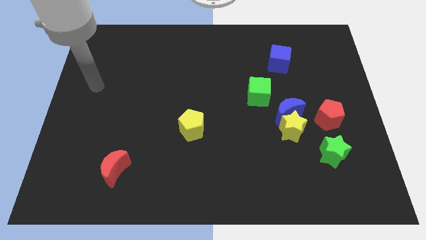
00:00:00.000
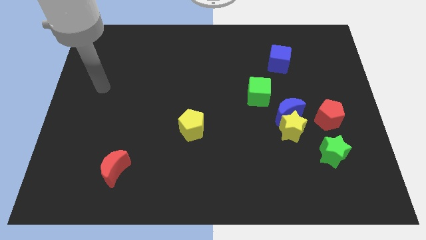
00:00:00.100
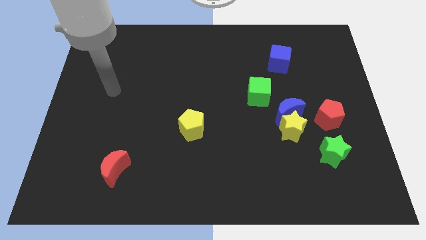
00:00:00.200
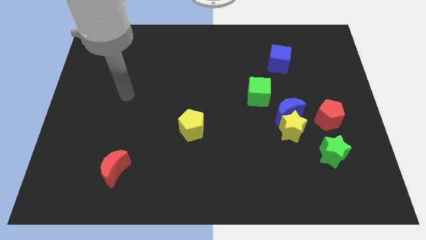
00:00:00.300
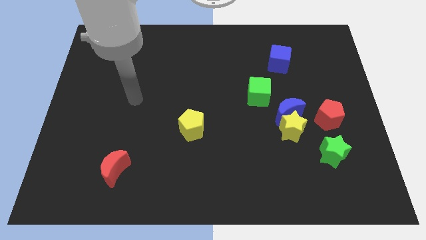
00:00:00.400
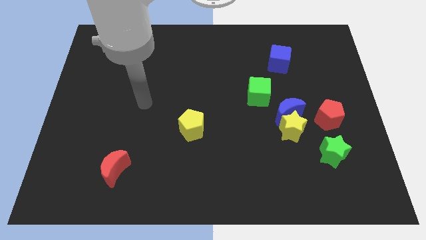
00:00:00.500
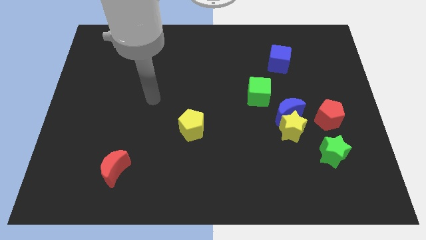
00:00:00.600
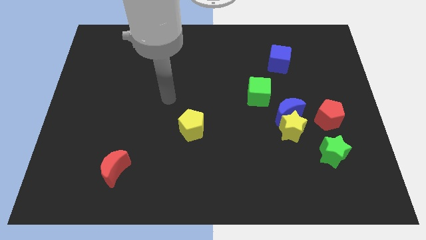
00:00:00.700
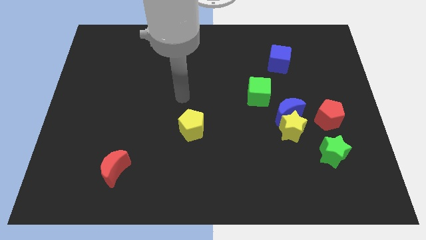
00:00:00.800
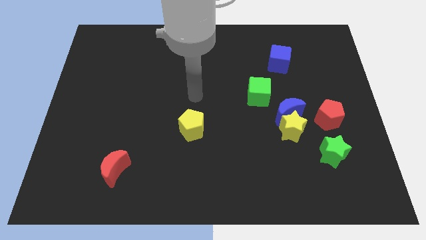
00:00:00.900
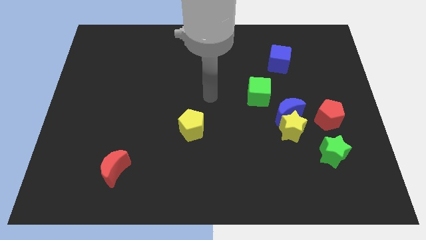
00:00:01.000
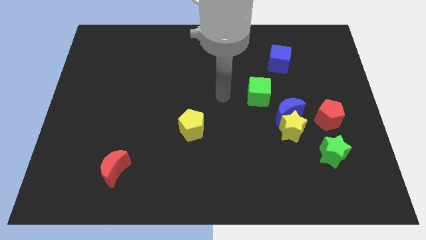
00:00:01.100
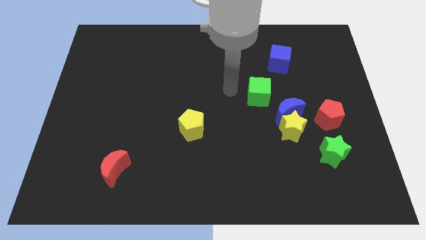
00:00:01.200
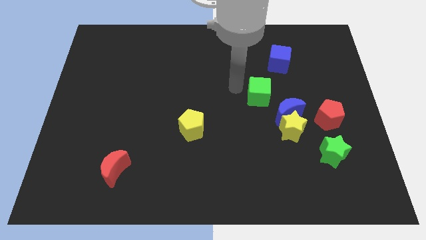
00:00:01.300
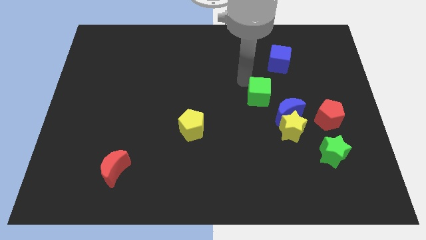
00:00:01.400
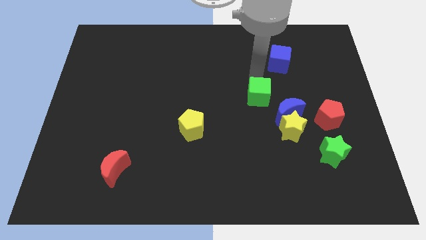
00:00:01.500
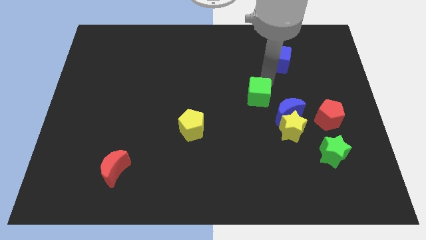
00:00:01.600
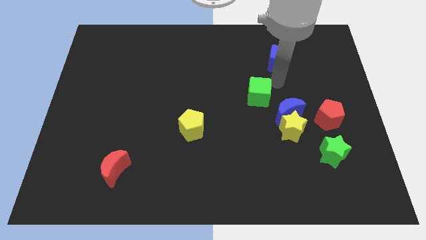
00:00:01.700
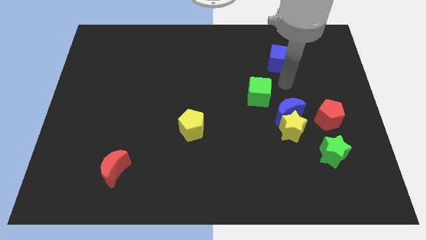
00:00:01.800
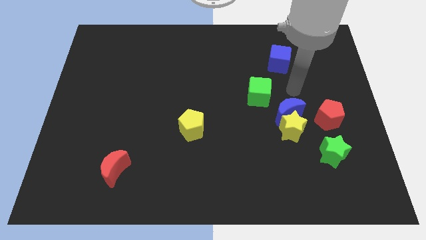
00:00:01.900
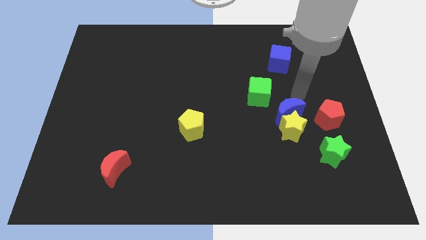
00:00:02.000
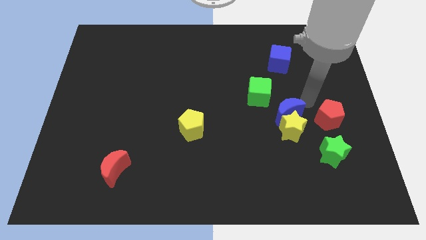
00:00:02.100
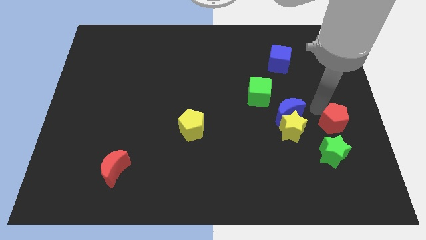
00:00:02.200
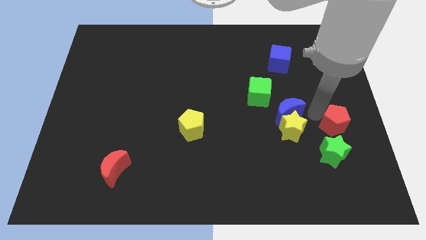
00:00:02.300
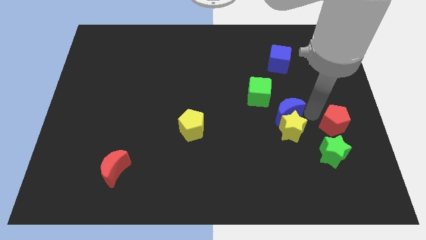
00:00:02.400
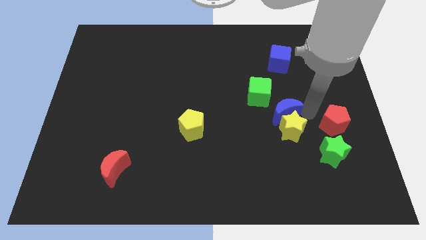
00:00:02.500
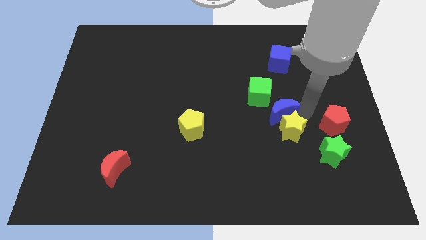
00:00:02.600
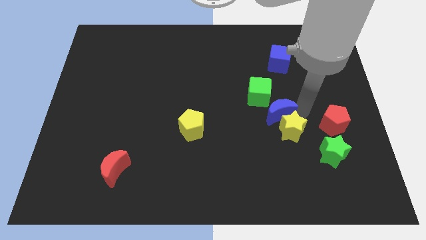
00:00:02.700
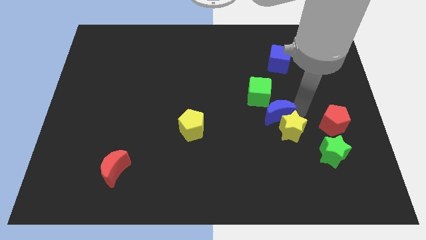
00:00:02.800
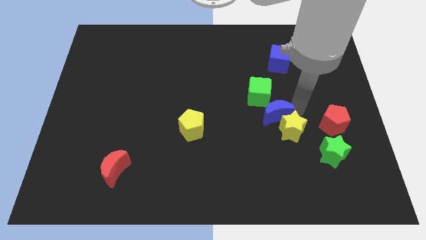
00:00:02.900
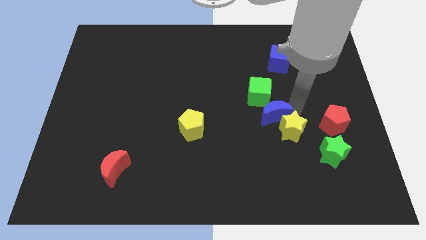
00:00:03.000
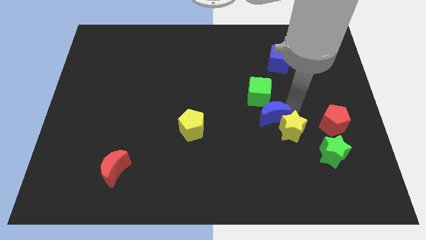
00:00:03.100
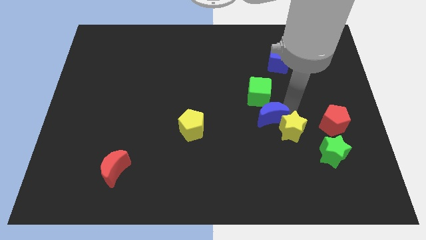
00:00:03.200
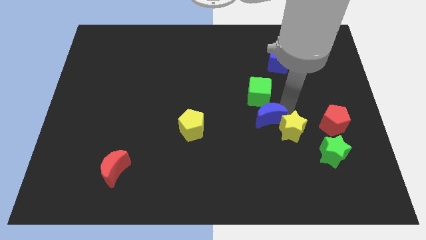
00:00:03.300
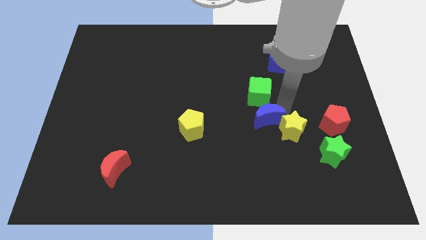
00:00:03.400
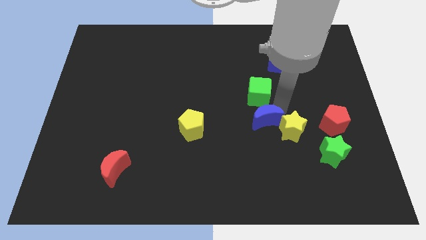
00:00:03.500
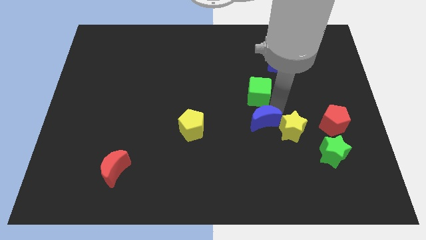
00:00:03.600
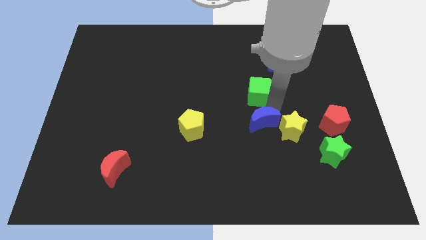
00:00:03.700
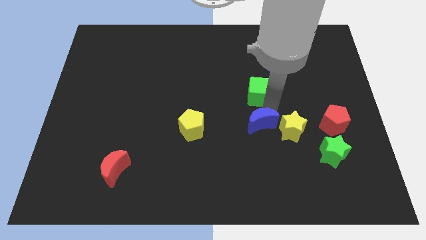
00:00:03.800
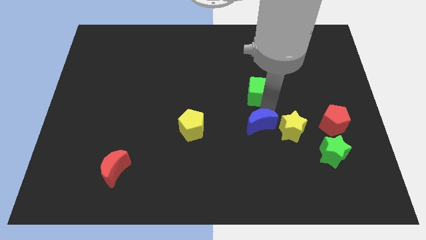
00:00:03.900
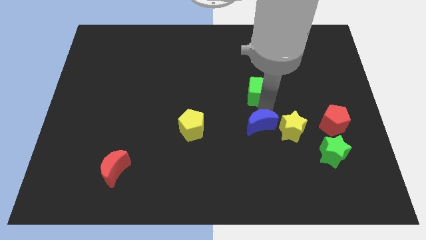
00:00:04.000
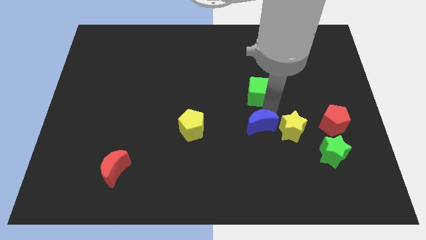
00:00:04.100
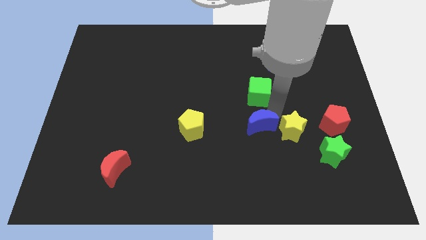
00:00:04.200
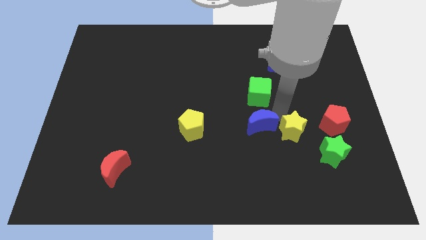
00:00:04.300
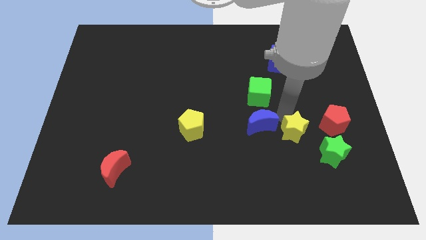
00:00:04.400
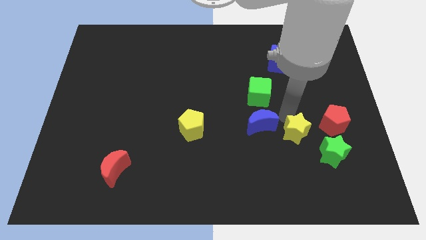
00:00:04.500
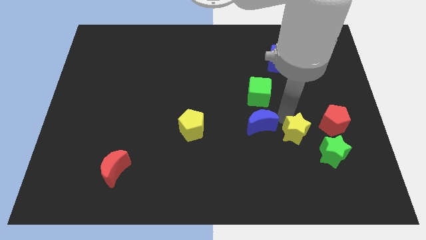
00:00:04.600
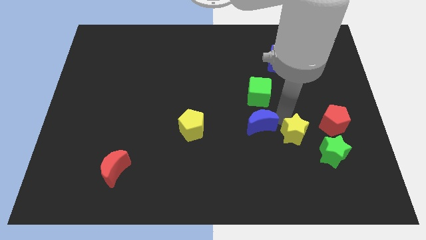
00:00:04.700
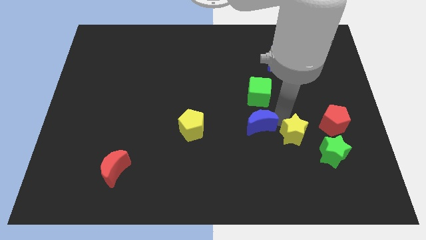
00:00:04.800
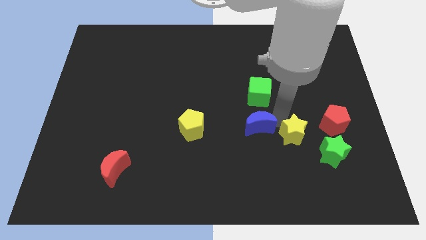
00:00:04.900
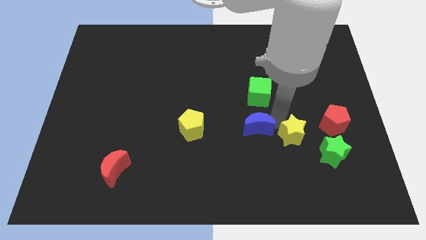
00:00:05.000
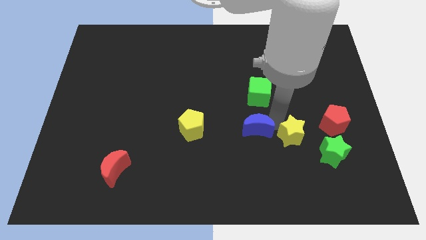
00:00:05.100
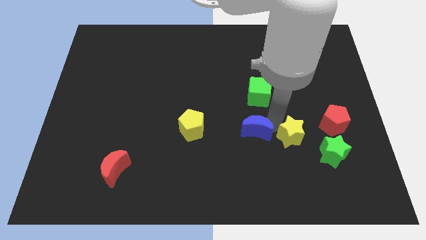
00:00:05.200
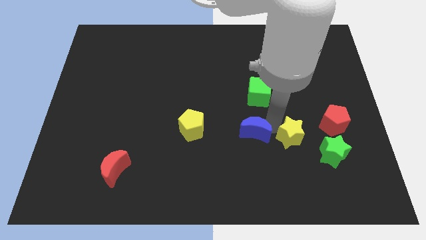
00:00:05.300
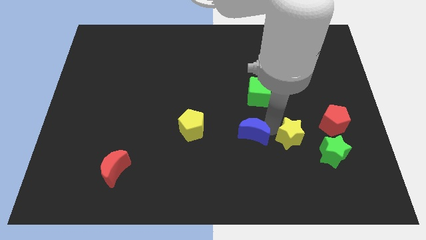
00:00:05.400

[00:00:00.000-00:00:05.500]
pull the blue moon apart from the group

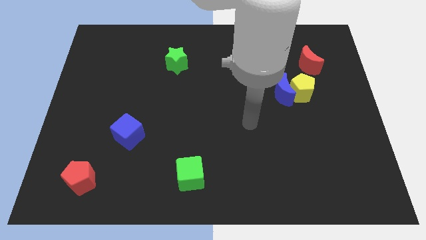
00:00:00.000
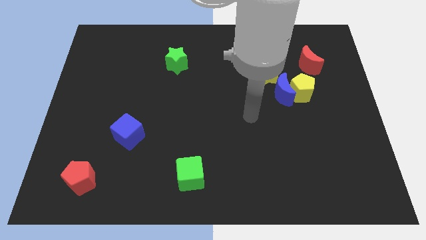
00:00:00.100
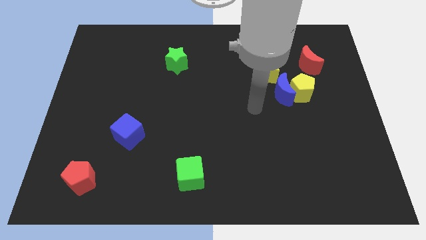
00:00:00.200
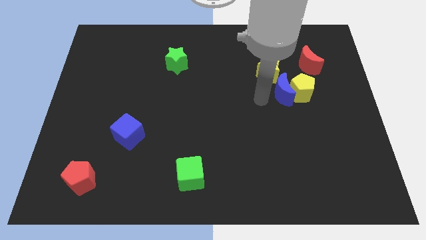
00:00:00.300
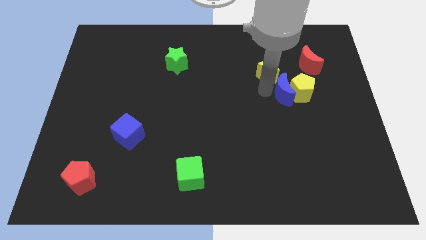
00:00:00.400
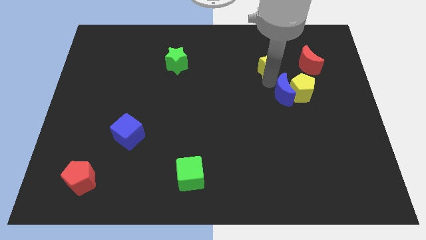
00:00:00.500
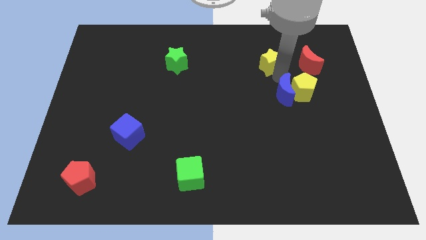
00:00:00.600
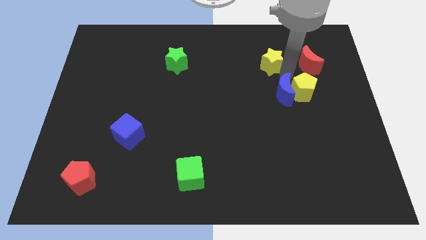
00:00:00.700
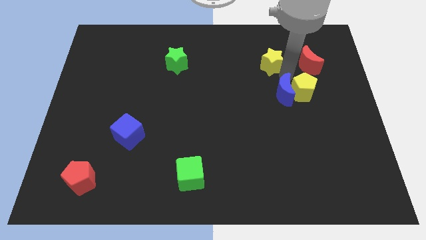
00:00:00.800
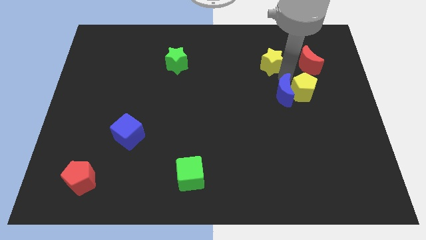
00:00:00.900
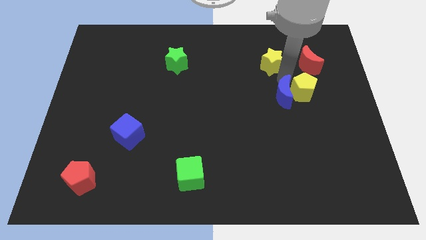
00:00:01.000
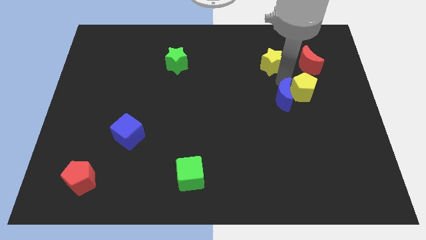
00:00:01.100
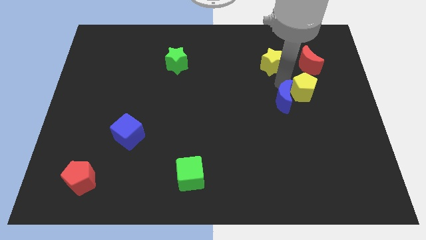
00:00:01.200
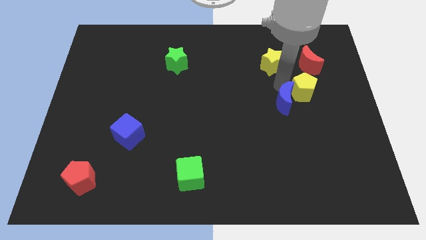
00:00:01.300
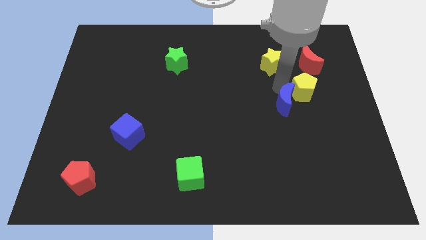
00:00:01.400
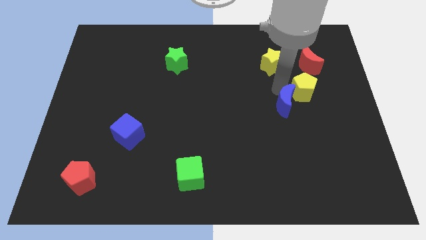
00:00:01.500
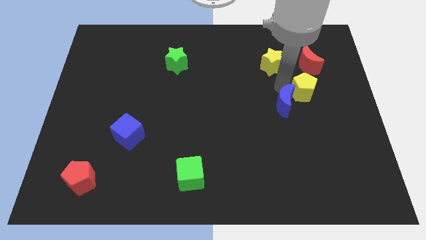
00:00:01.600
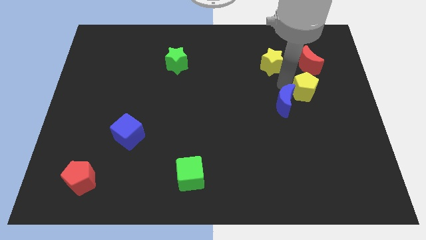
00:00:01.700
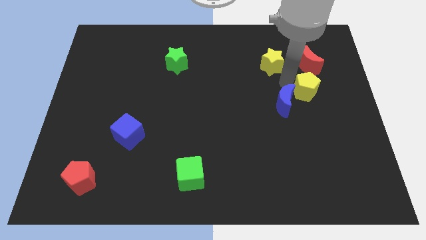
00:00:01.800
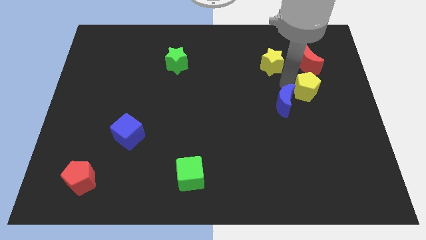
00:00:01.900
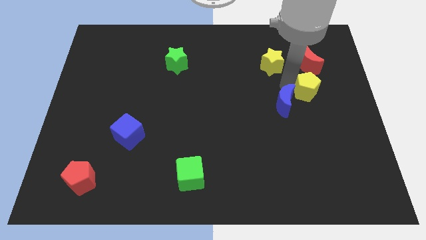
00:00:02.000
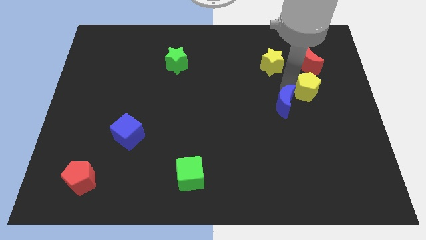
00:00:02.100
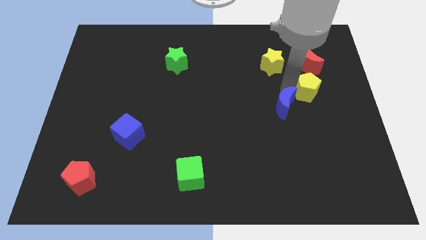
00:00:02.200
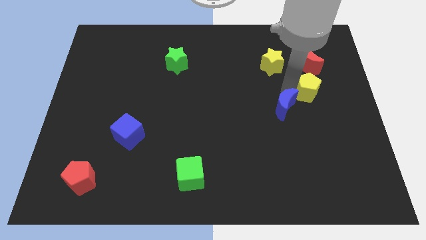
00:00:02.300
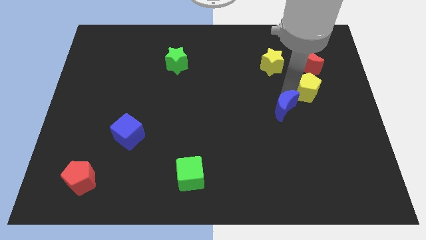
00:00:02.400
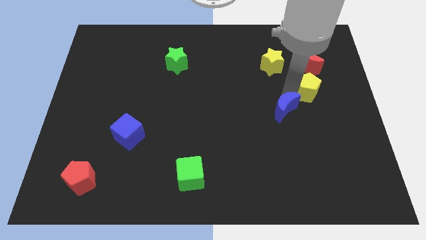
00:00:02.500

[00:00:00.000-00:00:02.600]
separate the blue moon from the yellow pentagon and yellow star

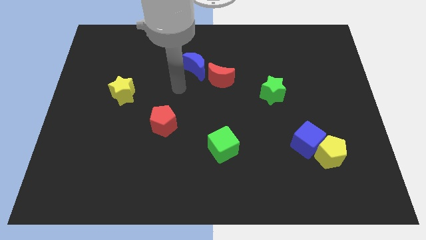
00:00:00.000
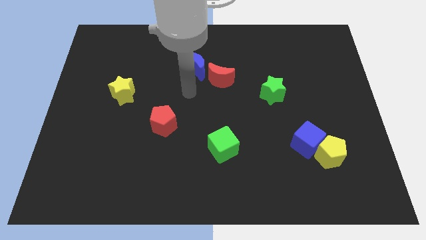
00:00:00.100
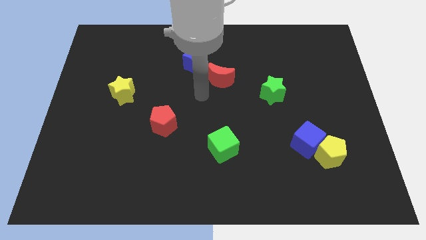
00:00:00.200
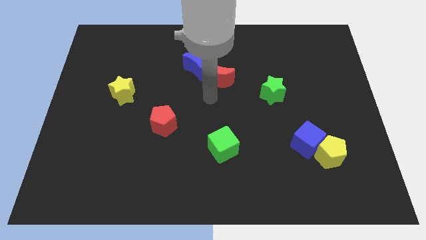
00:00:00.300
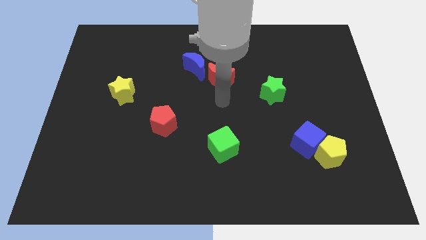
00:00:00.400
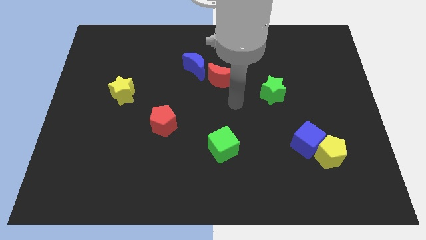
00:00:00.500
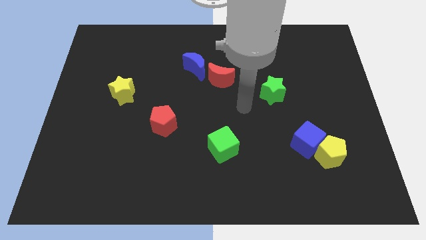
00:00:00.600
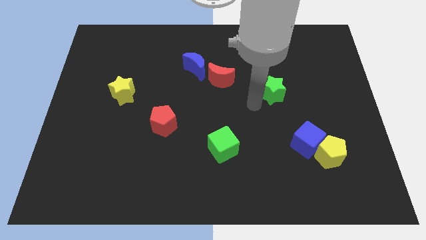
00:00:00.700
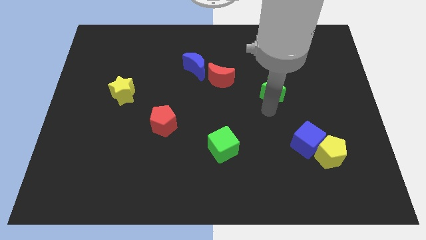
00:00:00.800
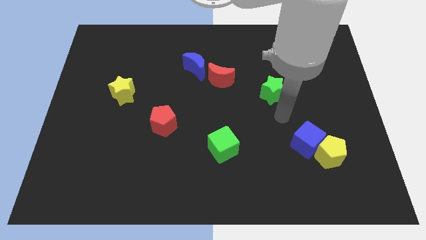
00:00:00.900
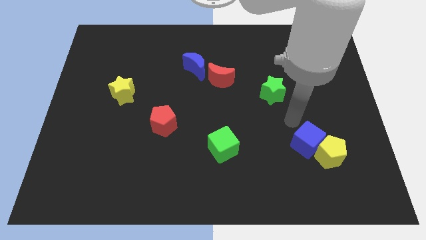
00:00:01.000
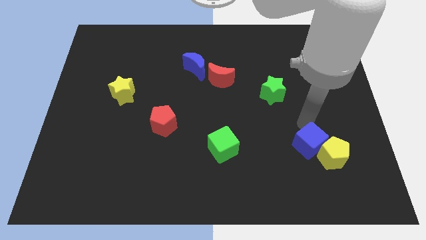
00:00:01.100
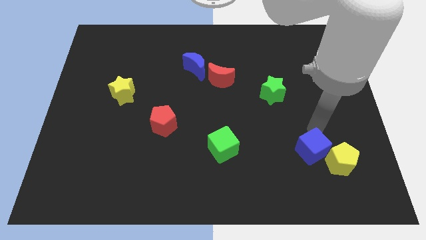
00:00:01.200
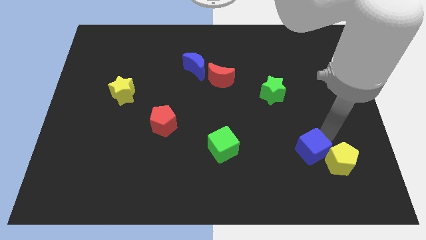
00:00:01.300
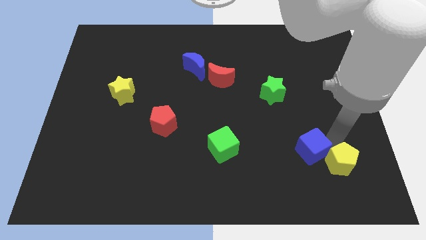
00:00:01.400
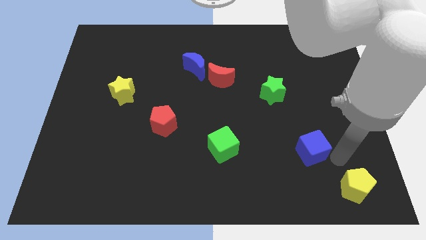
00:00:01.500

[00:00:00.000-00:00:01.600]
pull the blue cube apart from the yellow pentagon
